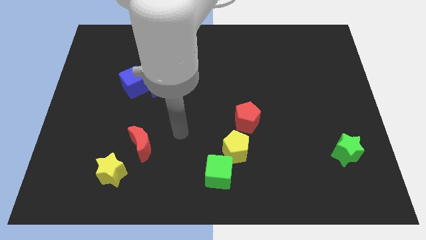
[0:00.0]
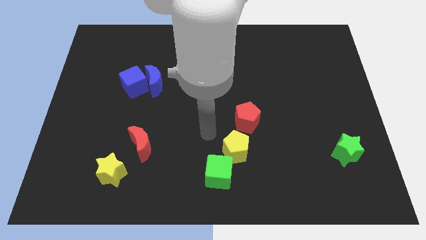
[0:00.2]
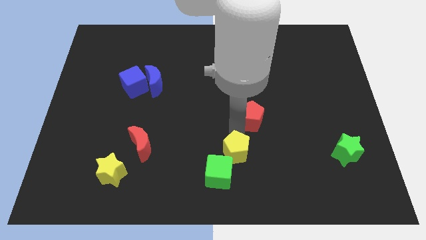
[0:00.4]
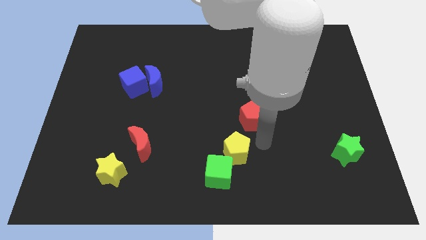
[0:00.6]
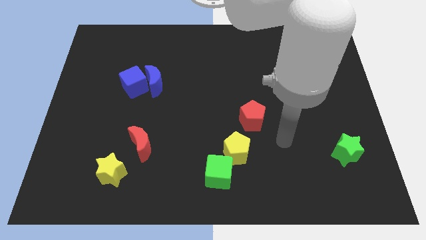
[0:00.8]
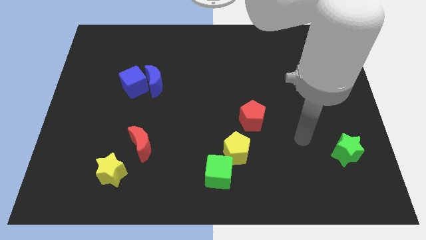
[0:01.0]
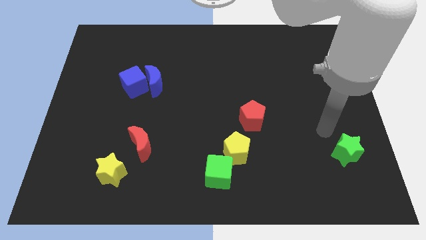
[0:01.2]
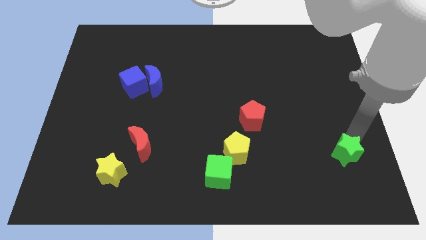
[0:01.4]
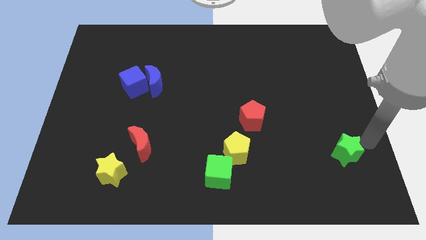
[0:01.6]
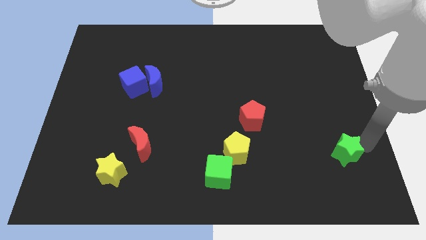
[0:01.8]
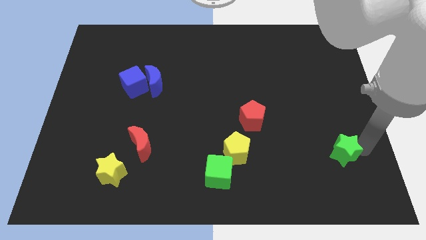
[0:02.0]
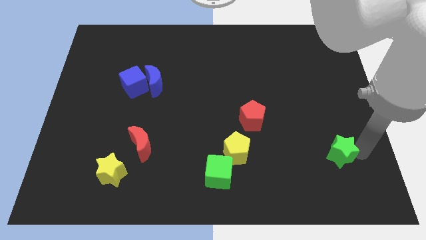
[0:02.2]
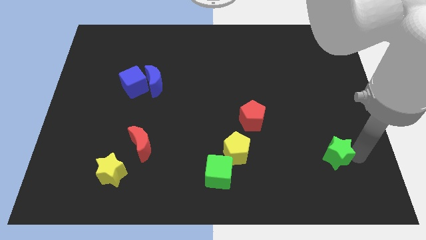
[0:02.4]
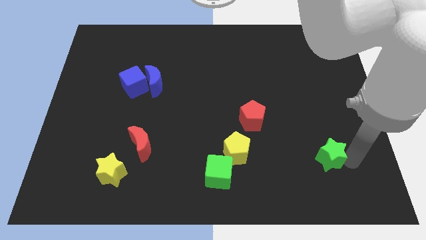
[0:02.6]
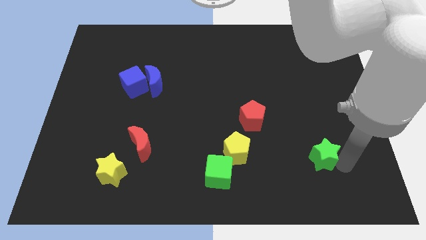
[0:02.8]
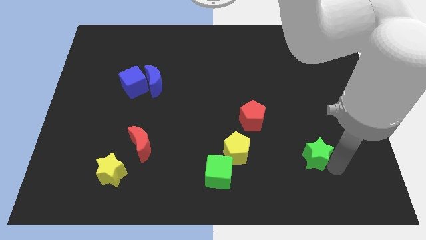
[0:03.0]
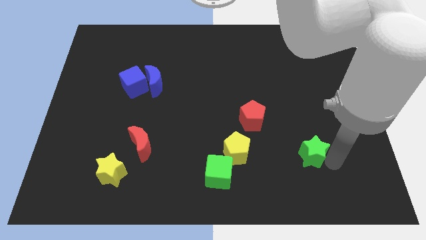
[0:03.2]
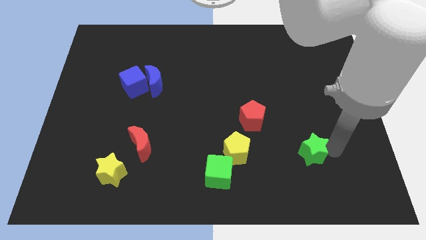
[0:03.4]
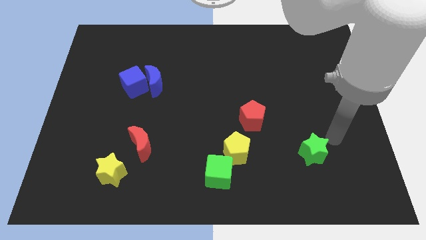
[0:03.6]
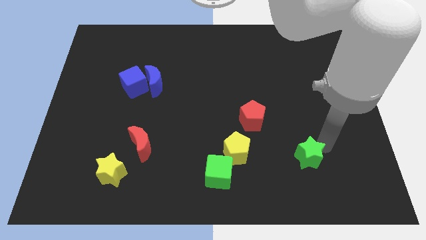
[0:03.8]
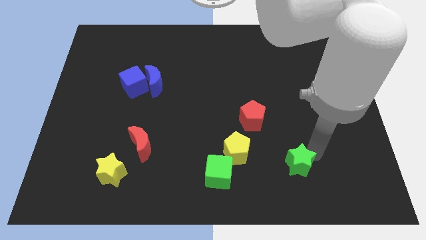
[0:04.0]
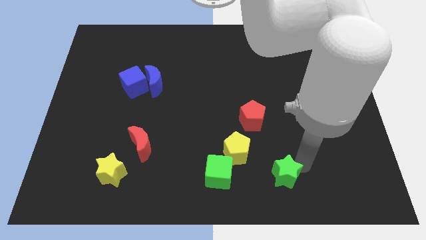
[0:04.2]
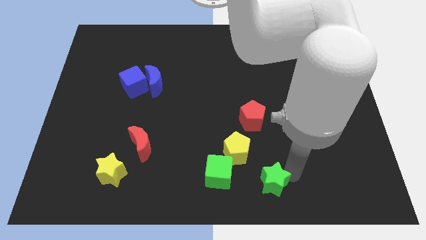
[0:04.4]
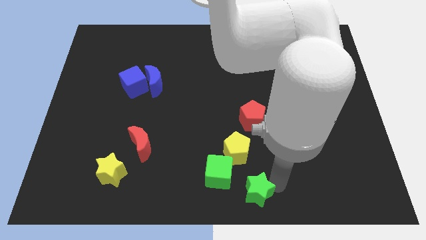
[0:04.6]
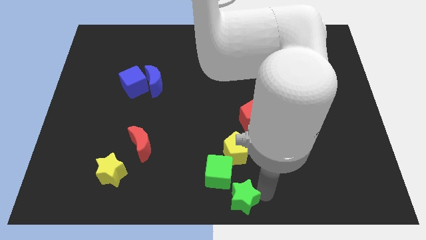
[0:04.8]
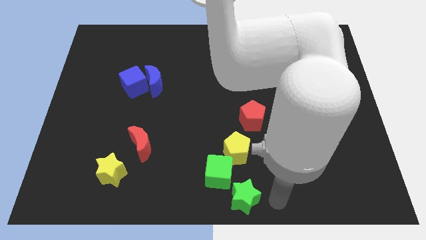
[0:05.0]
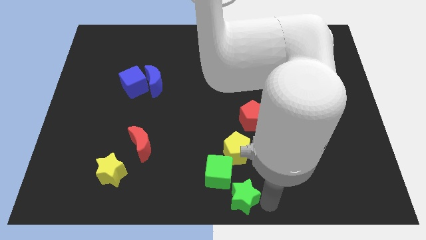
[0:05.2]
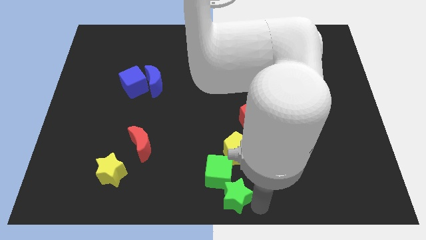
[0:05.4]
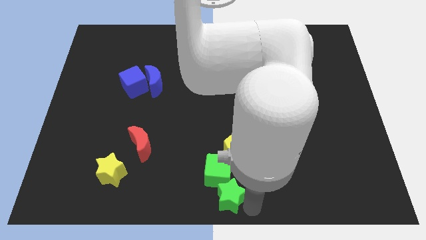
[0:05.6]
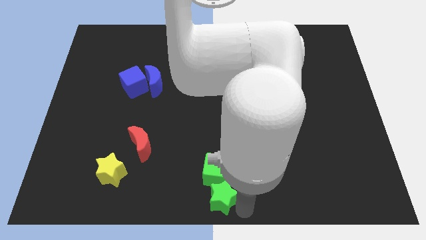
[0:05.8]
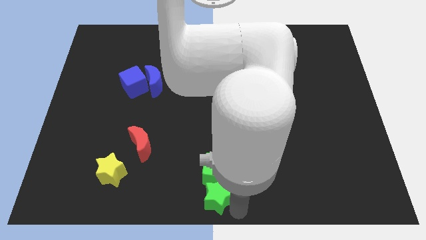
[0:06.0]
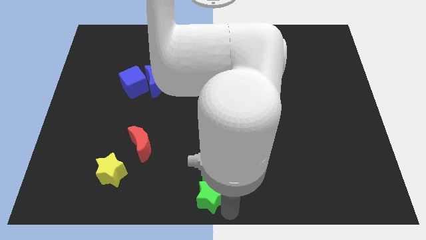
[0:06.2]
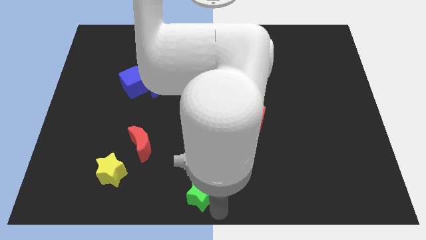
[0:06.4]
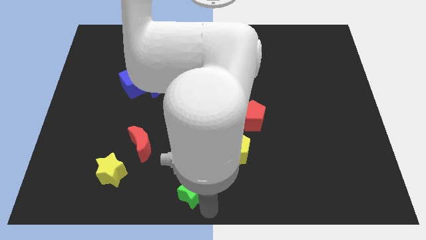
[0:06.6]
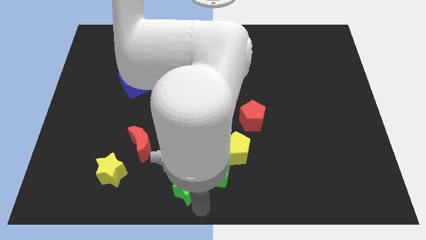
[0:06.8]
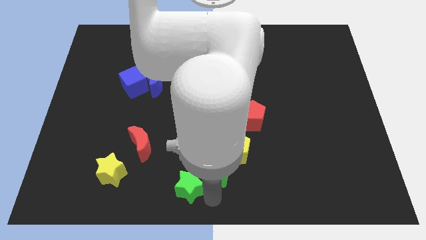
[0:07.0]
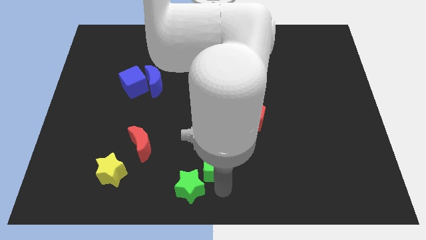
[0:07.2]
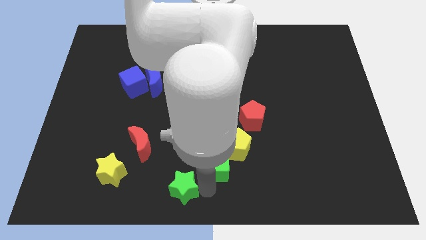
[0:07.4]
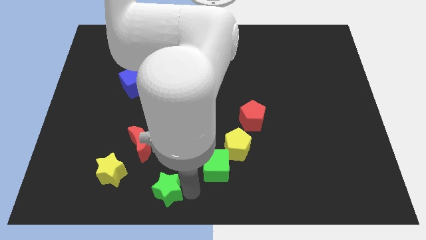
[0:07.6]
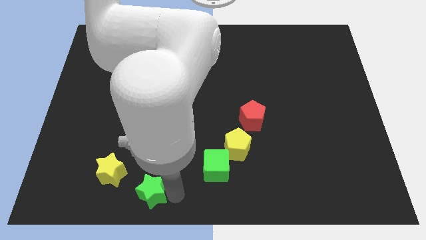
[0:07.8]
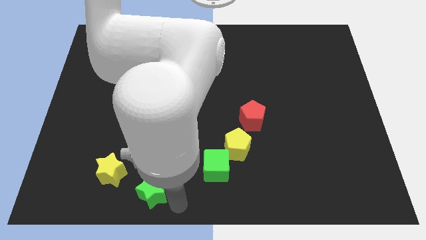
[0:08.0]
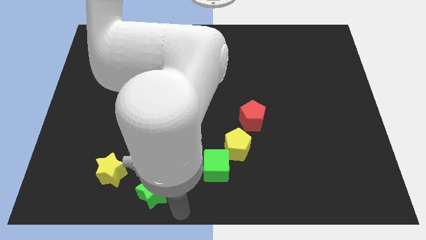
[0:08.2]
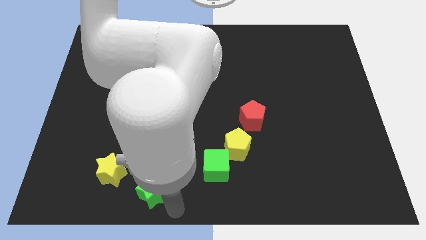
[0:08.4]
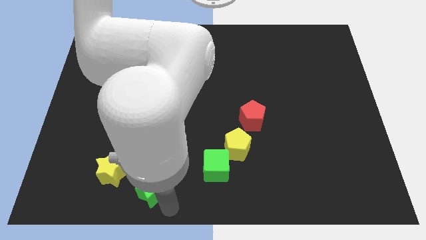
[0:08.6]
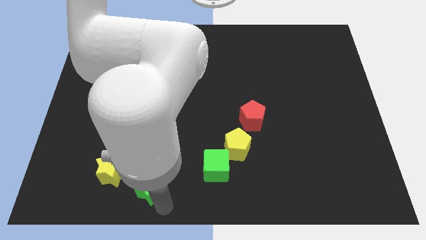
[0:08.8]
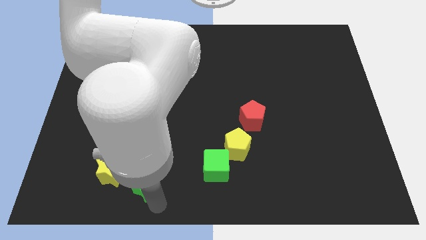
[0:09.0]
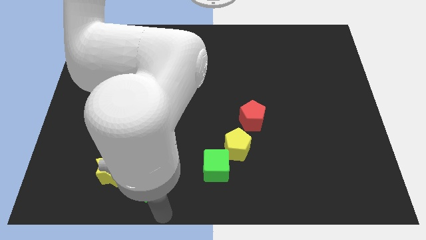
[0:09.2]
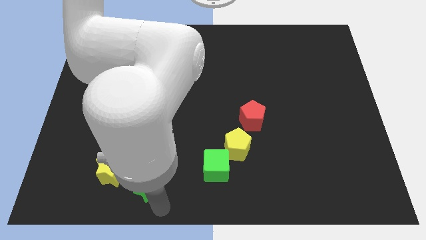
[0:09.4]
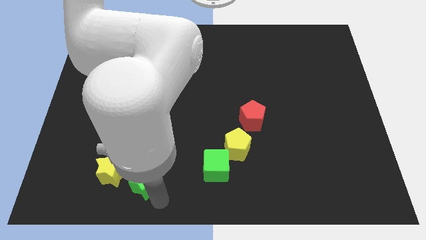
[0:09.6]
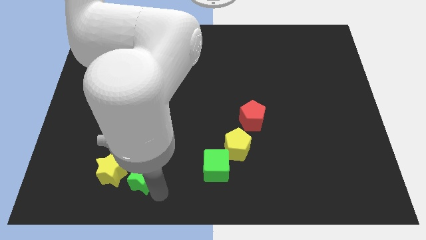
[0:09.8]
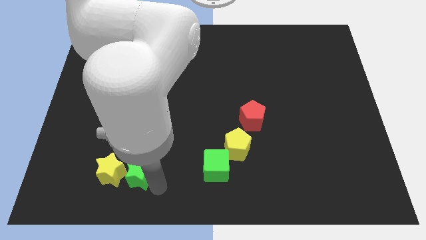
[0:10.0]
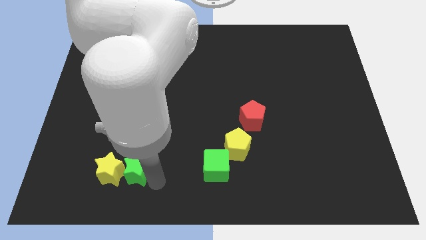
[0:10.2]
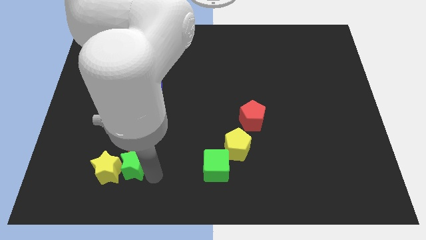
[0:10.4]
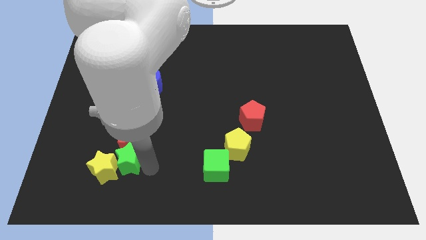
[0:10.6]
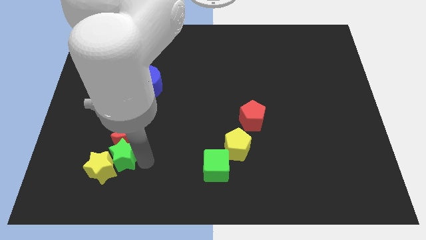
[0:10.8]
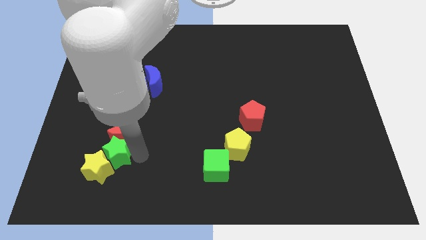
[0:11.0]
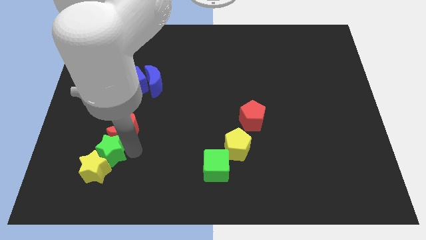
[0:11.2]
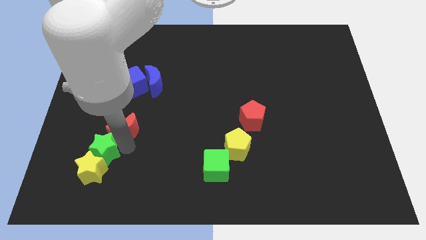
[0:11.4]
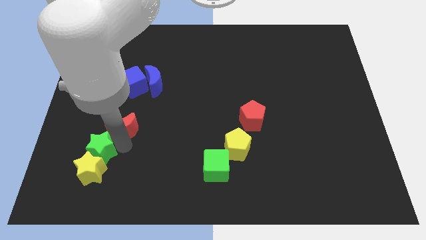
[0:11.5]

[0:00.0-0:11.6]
slide the green star to the top left of the yellow star

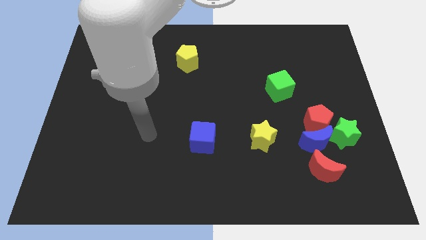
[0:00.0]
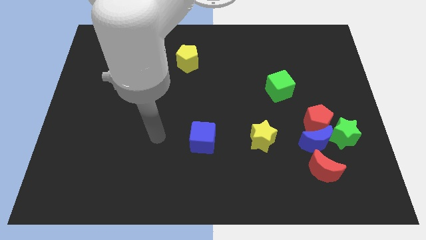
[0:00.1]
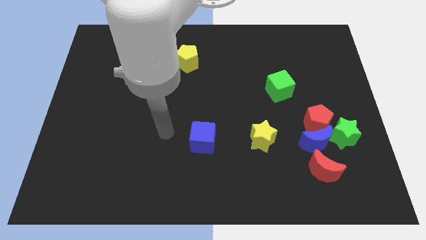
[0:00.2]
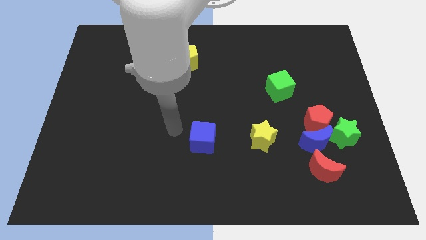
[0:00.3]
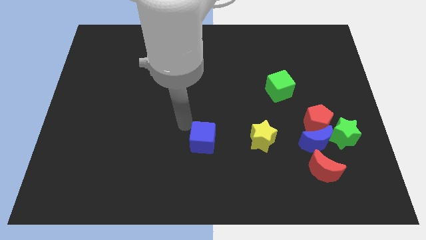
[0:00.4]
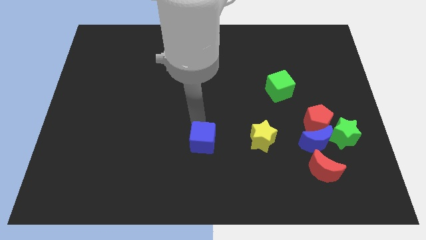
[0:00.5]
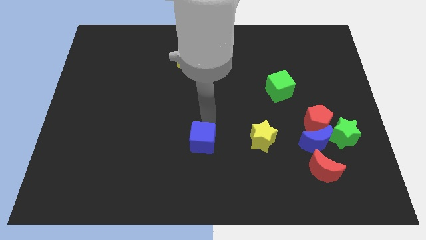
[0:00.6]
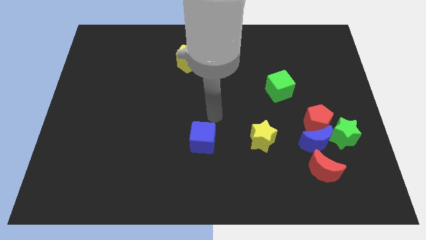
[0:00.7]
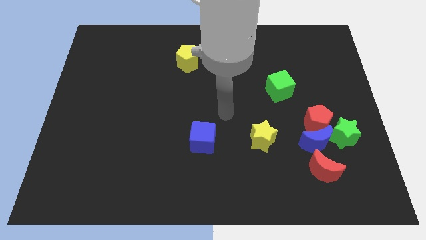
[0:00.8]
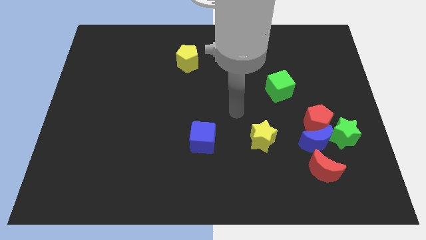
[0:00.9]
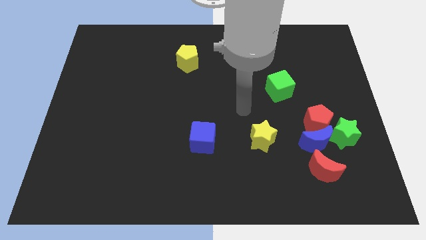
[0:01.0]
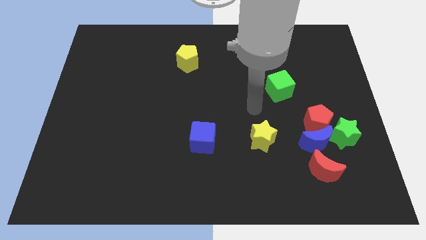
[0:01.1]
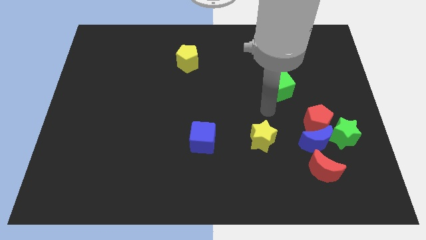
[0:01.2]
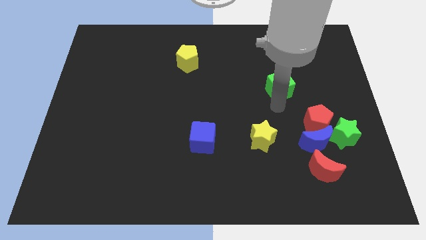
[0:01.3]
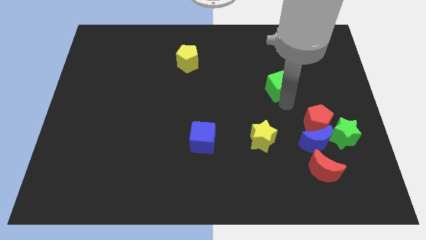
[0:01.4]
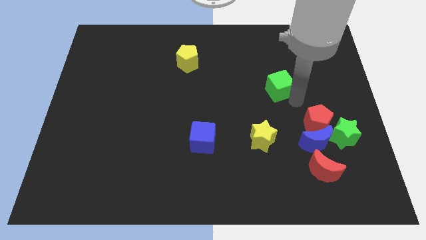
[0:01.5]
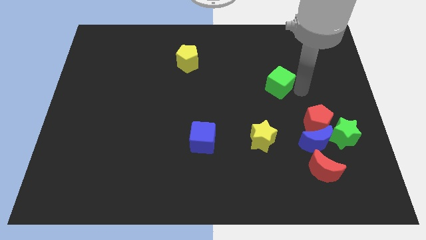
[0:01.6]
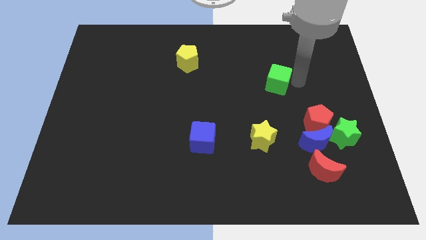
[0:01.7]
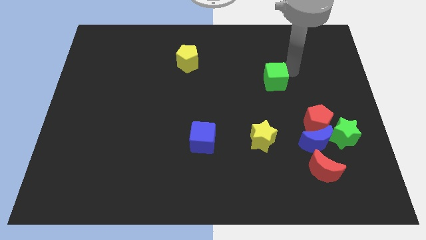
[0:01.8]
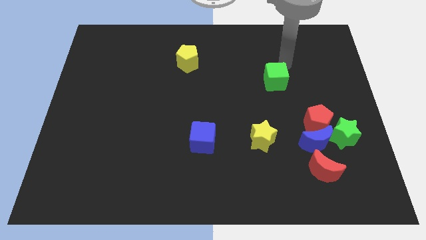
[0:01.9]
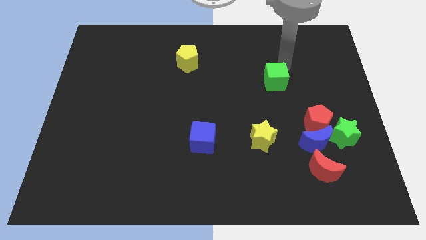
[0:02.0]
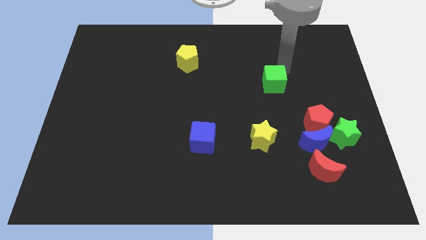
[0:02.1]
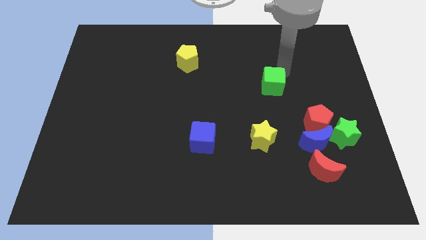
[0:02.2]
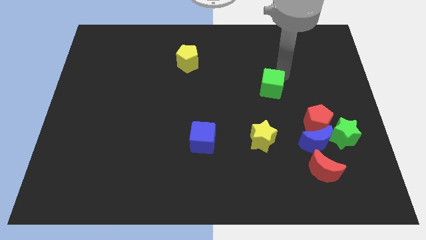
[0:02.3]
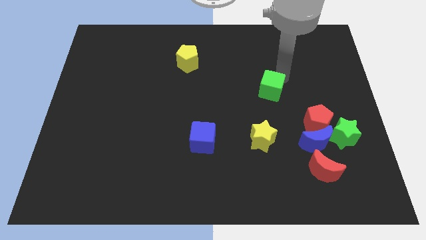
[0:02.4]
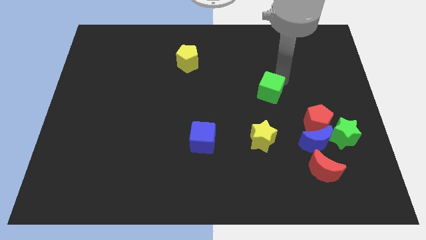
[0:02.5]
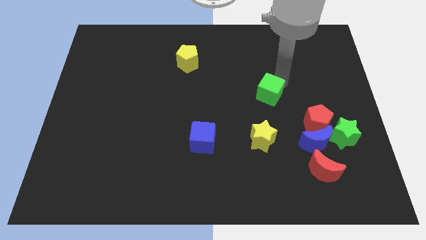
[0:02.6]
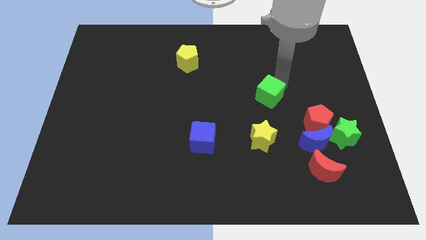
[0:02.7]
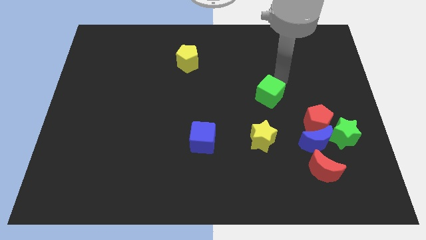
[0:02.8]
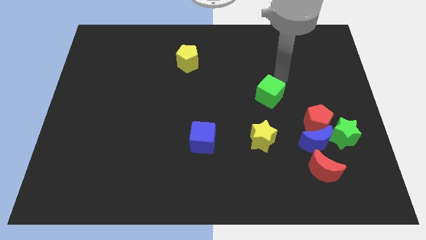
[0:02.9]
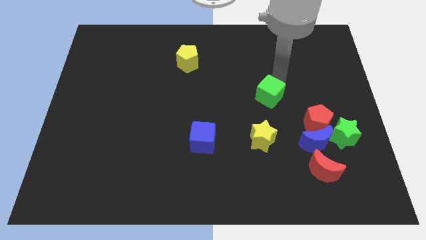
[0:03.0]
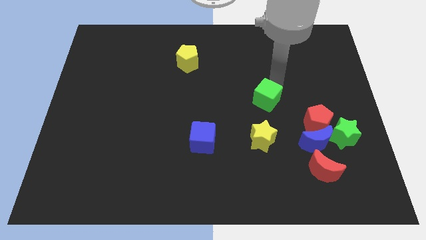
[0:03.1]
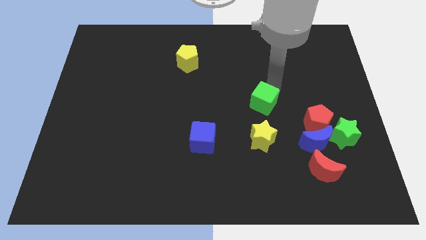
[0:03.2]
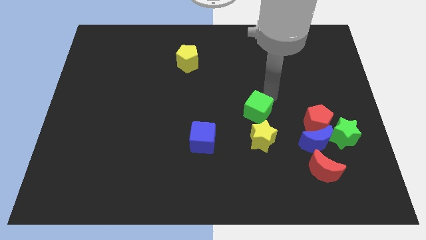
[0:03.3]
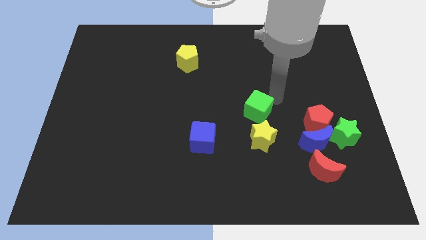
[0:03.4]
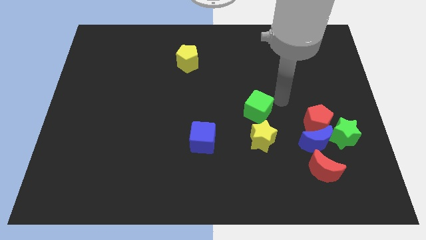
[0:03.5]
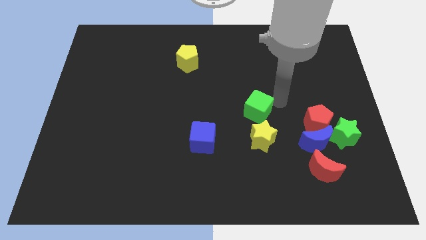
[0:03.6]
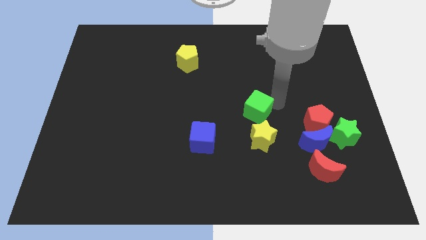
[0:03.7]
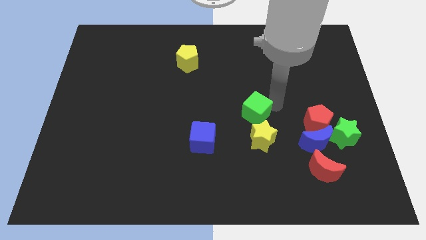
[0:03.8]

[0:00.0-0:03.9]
push the green cube to the top left side of the yellow star
